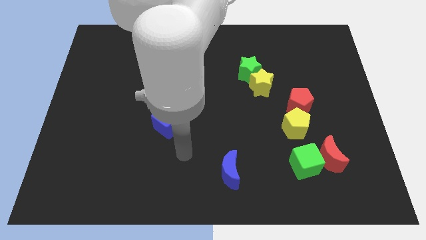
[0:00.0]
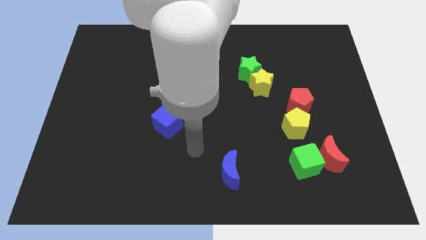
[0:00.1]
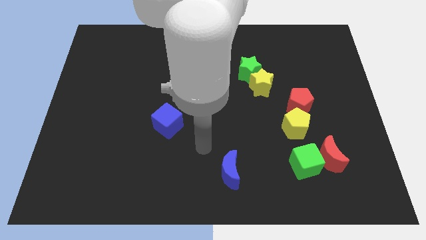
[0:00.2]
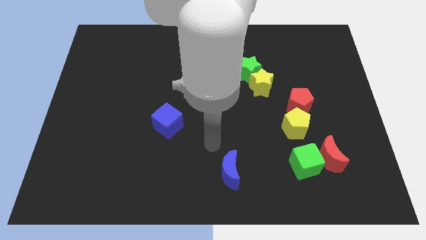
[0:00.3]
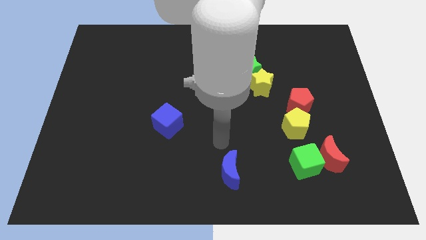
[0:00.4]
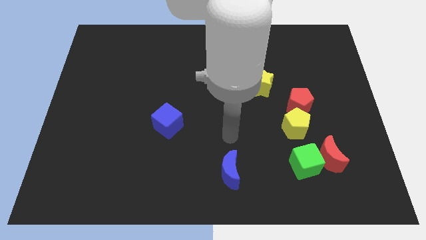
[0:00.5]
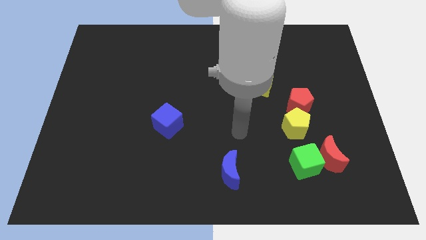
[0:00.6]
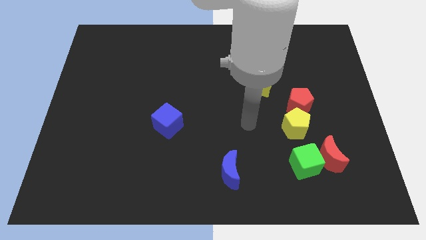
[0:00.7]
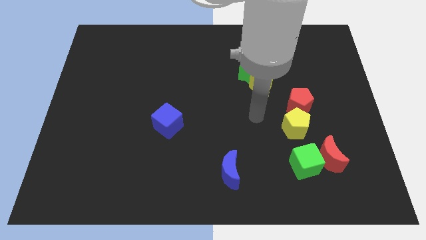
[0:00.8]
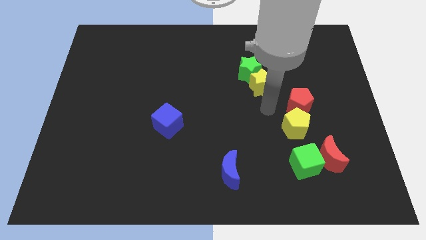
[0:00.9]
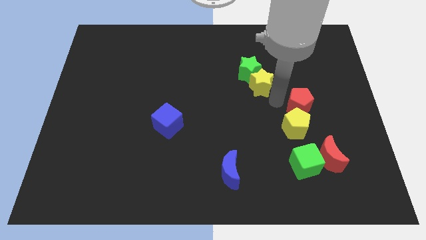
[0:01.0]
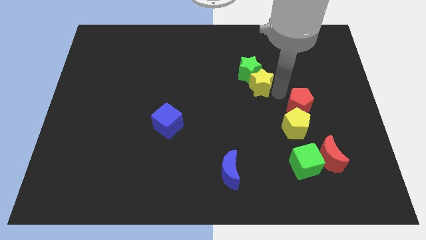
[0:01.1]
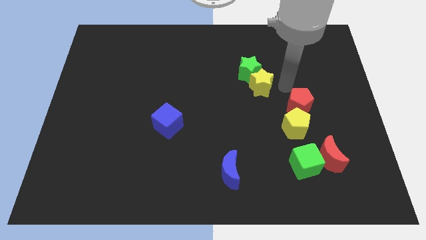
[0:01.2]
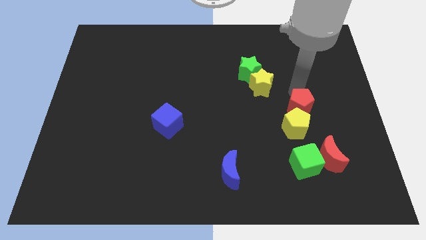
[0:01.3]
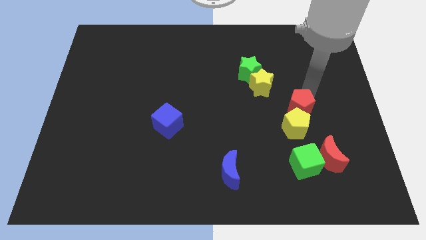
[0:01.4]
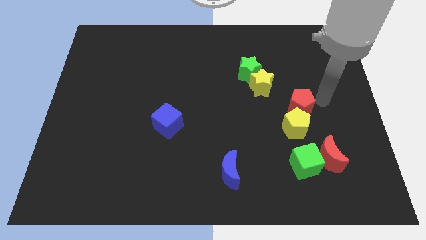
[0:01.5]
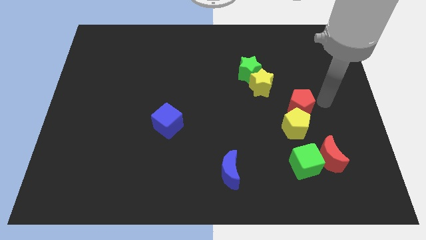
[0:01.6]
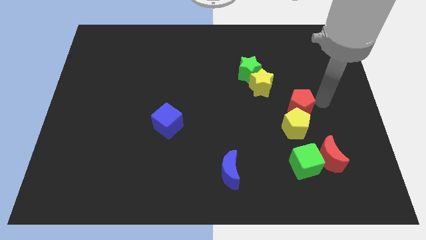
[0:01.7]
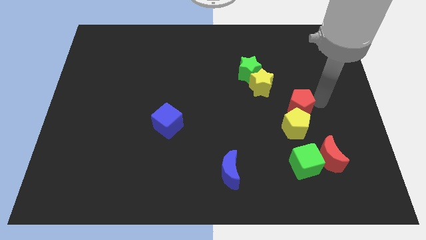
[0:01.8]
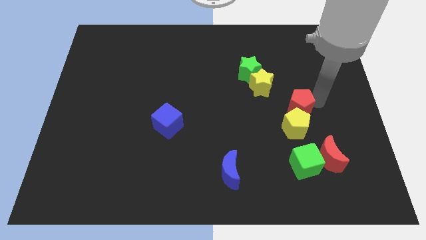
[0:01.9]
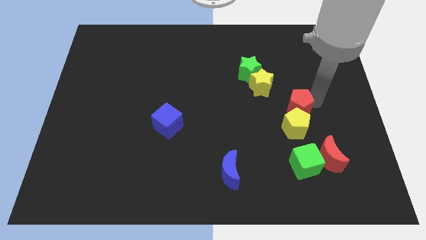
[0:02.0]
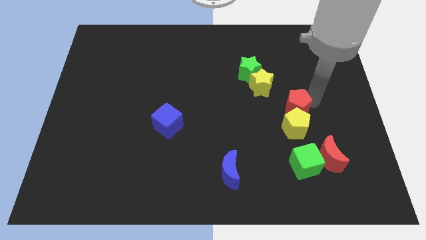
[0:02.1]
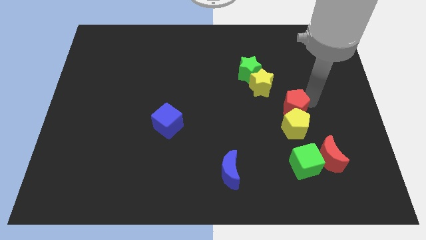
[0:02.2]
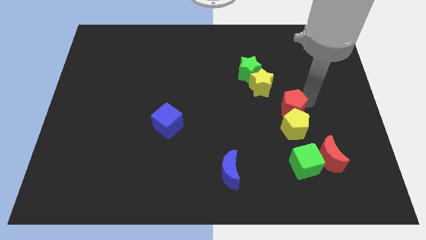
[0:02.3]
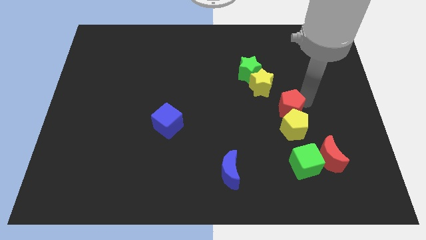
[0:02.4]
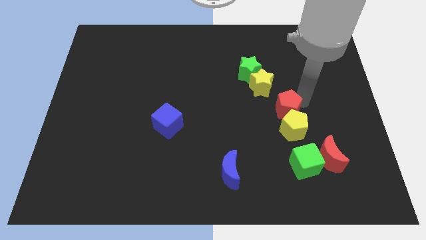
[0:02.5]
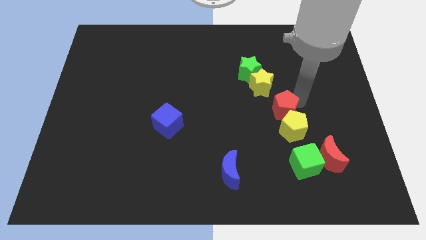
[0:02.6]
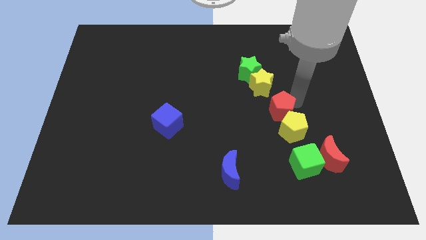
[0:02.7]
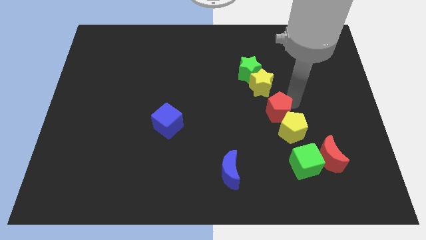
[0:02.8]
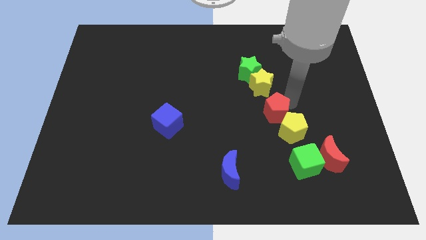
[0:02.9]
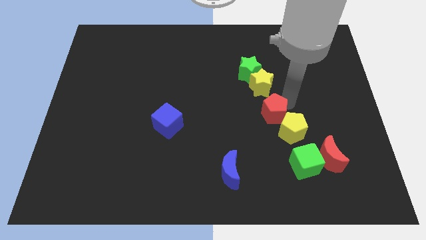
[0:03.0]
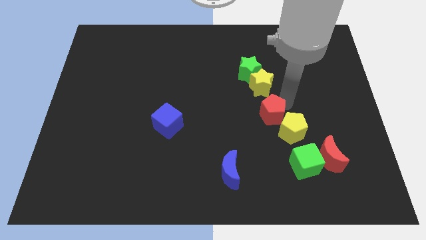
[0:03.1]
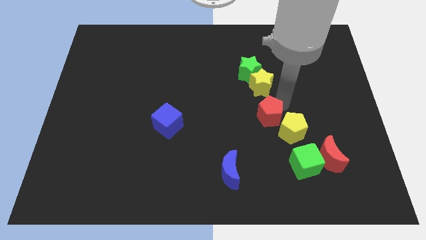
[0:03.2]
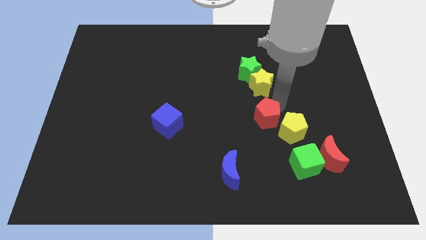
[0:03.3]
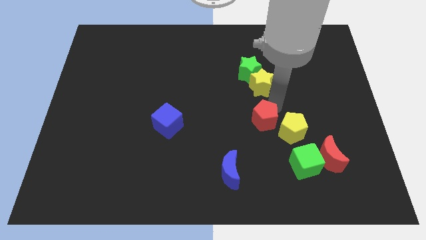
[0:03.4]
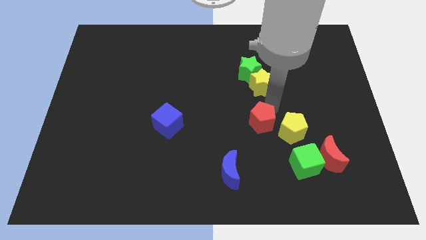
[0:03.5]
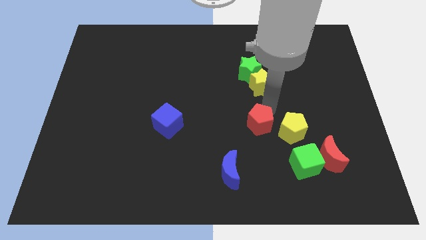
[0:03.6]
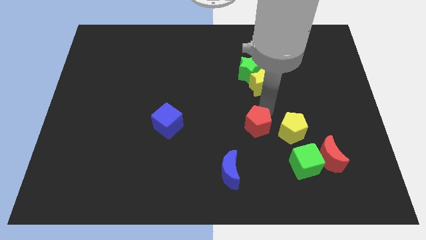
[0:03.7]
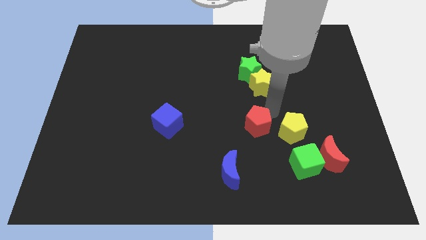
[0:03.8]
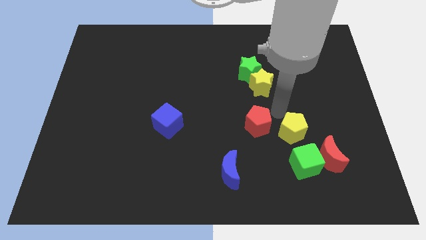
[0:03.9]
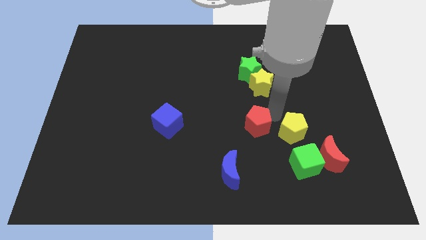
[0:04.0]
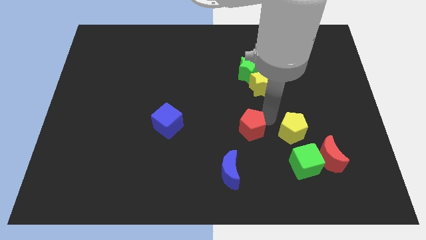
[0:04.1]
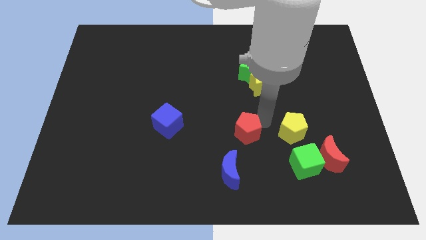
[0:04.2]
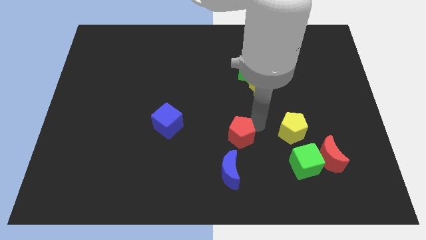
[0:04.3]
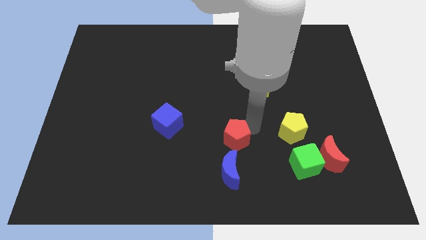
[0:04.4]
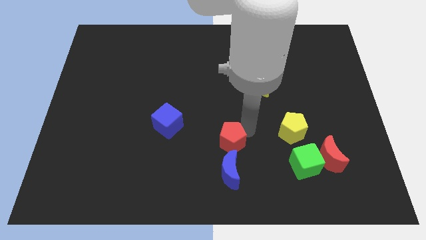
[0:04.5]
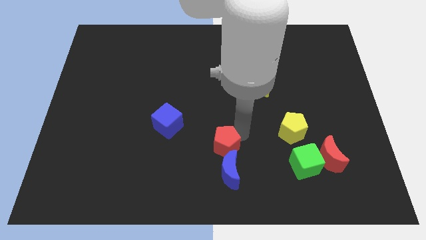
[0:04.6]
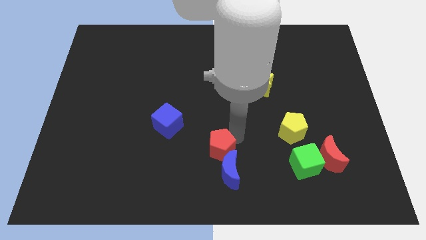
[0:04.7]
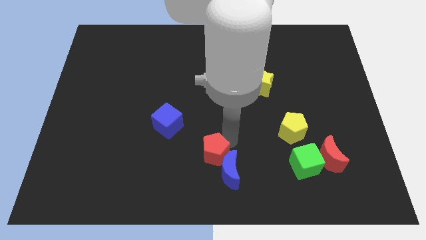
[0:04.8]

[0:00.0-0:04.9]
slide the red pentagon to the bottom side

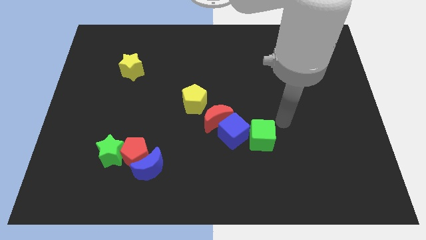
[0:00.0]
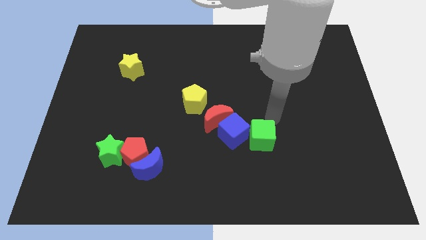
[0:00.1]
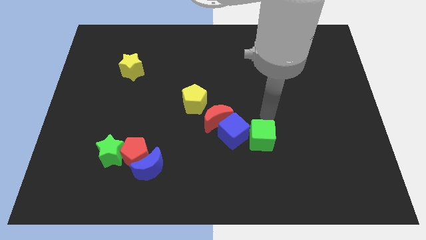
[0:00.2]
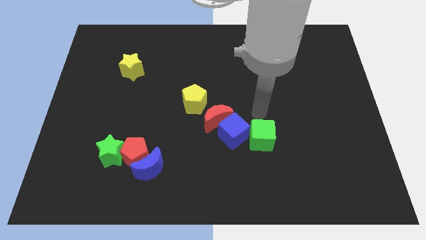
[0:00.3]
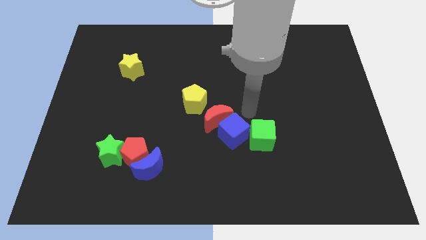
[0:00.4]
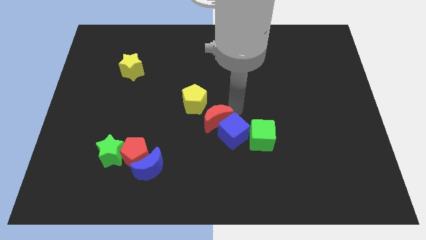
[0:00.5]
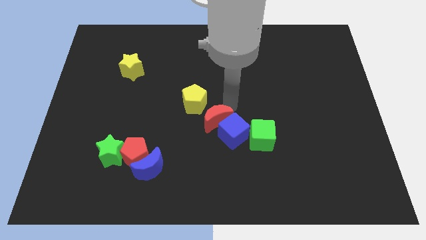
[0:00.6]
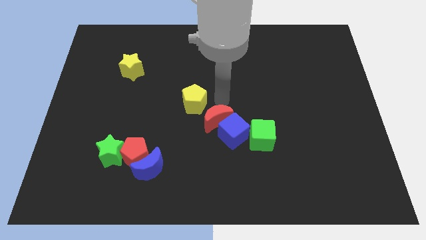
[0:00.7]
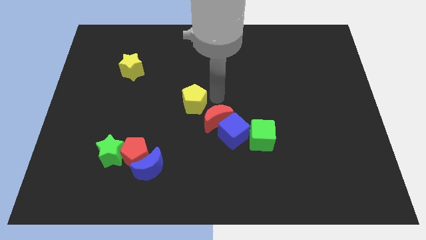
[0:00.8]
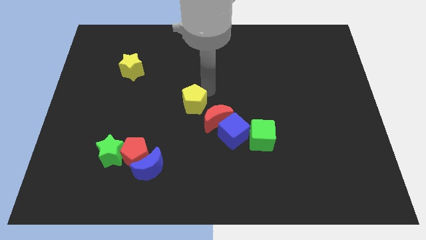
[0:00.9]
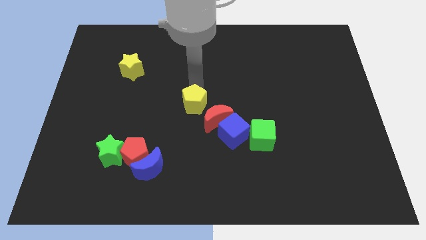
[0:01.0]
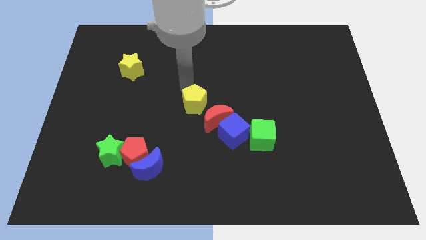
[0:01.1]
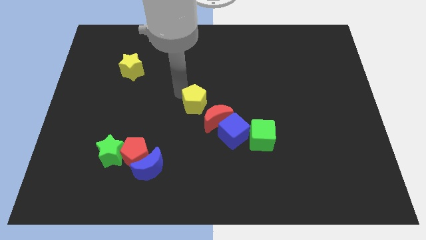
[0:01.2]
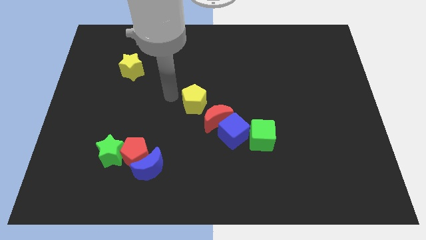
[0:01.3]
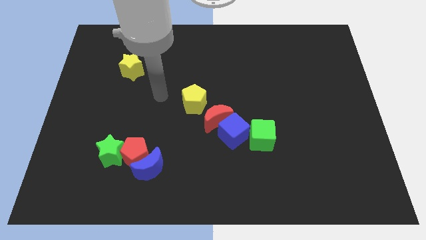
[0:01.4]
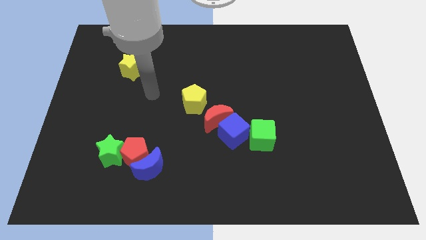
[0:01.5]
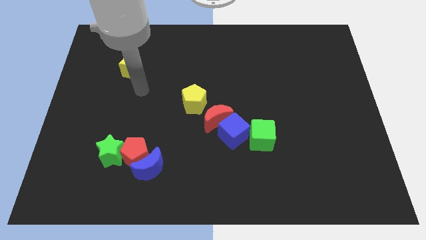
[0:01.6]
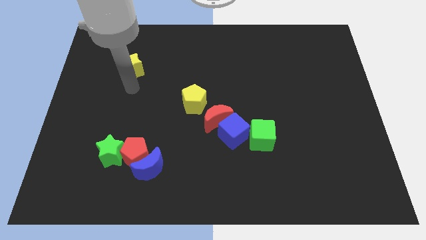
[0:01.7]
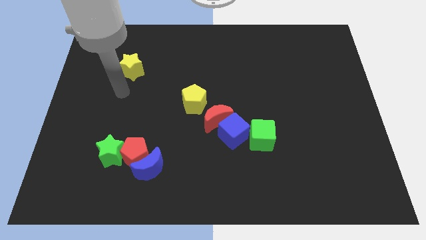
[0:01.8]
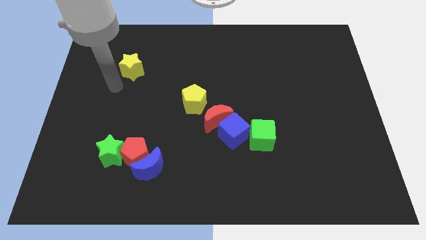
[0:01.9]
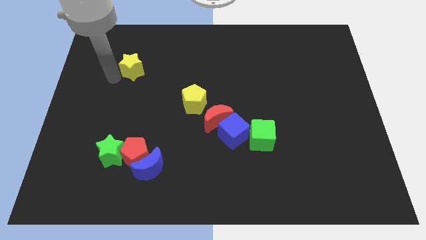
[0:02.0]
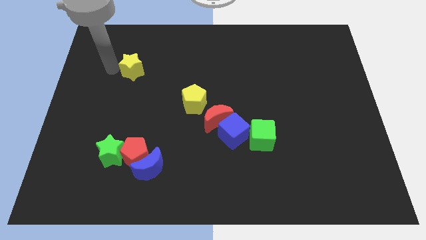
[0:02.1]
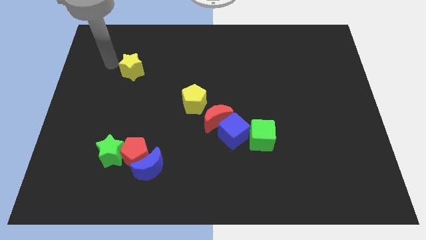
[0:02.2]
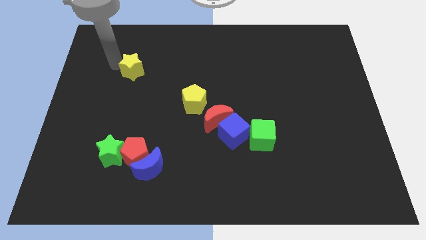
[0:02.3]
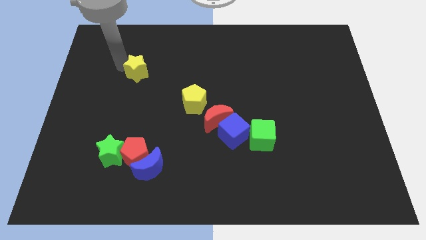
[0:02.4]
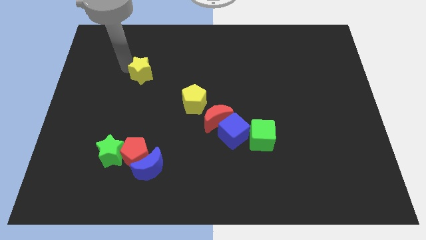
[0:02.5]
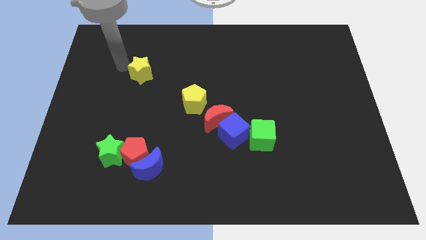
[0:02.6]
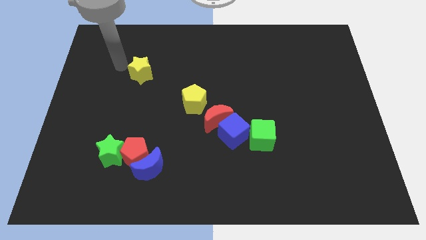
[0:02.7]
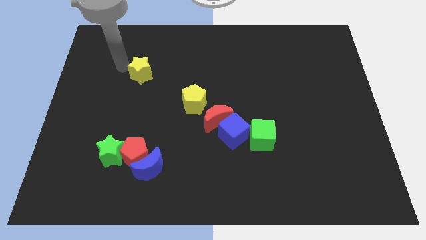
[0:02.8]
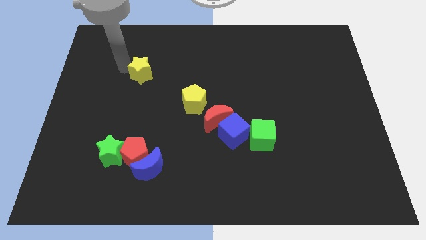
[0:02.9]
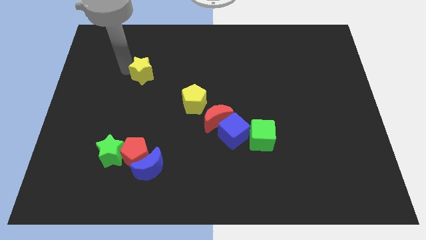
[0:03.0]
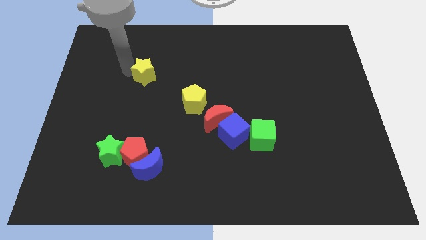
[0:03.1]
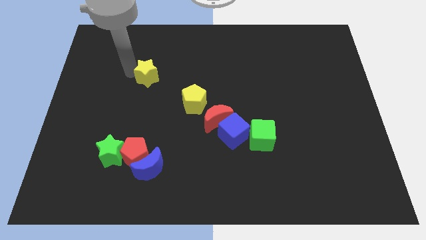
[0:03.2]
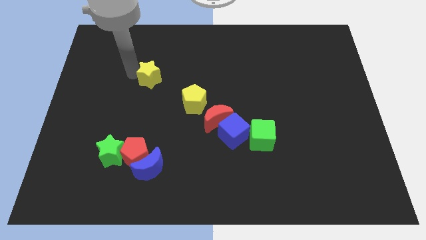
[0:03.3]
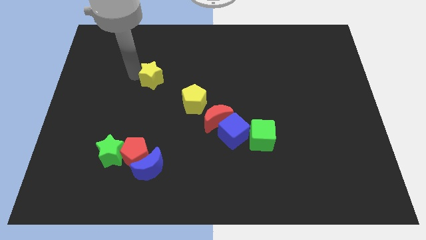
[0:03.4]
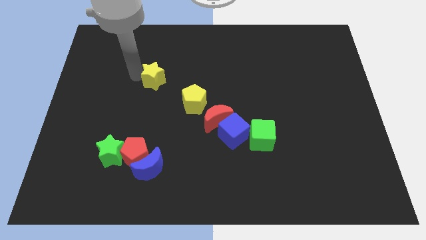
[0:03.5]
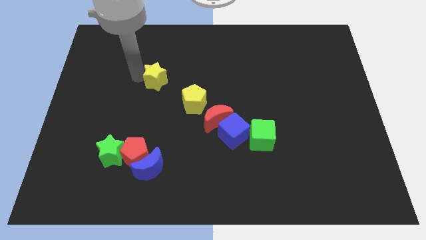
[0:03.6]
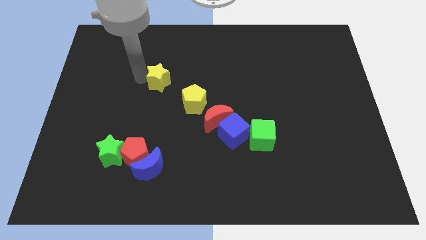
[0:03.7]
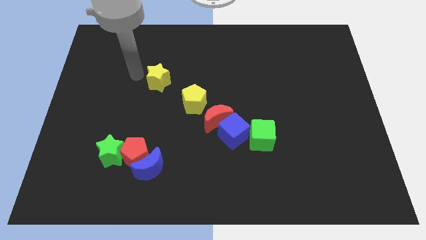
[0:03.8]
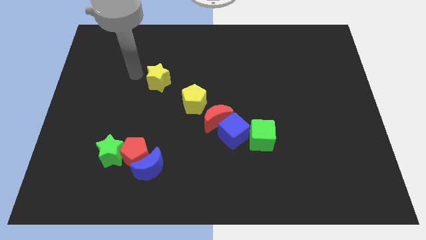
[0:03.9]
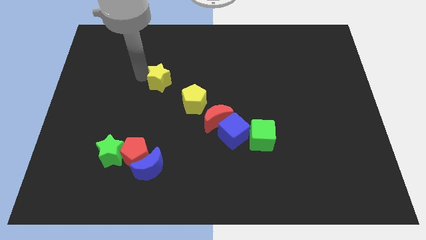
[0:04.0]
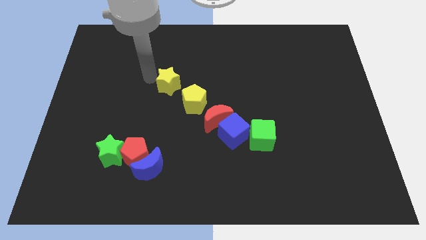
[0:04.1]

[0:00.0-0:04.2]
push the yellow star to the middle
